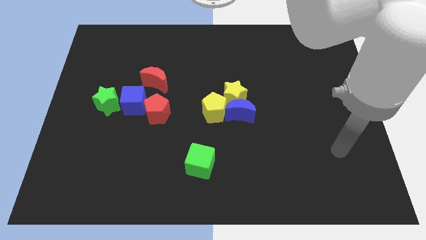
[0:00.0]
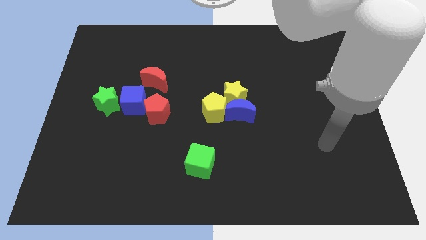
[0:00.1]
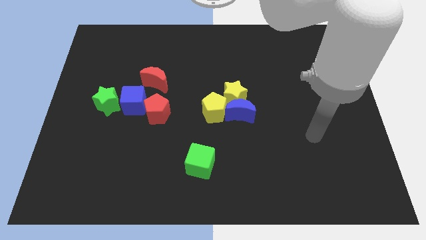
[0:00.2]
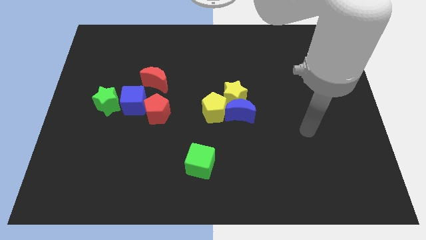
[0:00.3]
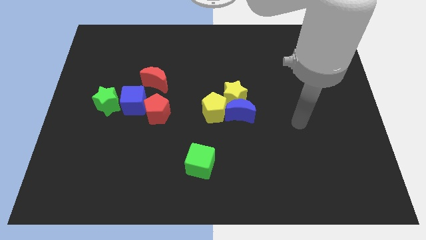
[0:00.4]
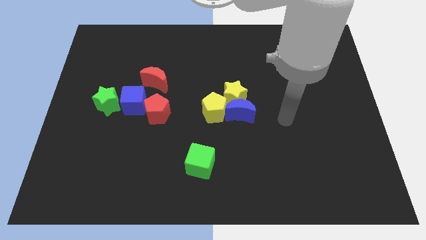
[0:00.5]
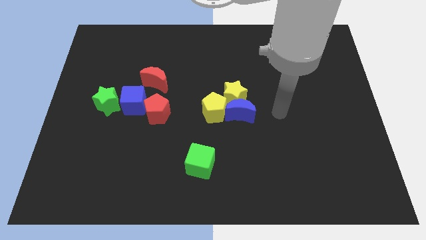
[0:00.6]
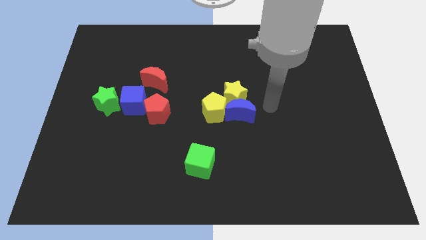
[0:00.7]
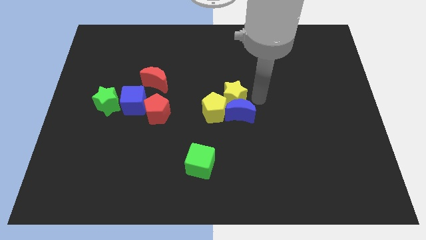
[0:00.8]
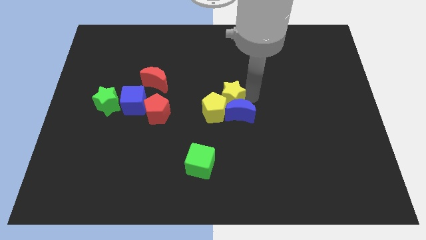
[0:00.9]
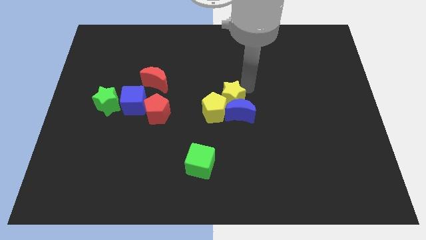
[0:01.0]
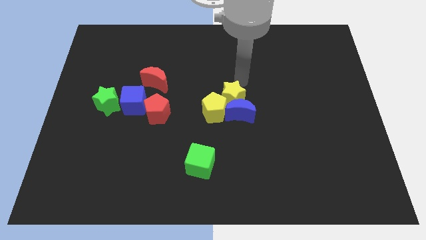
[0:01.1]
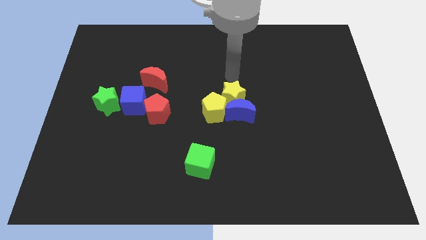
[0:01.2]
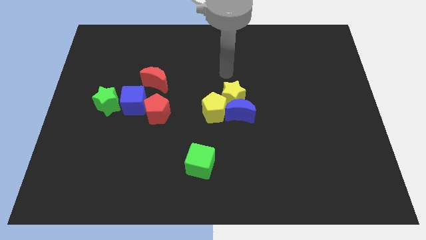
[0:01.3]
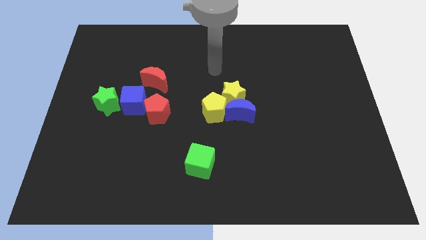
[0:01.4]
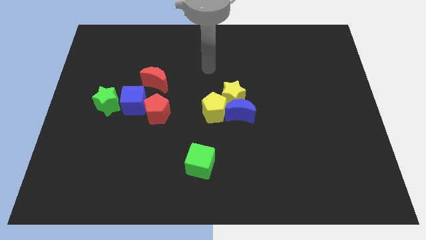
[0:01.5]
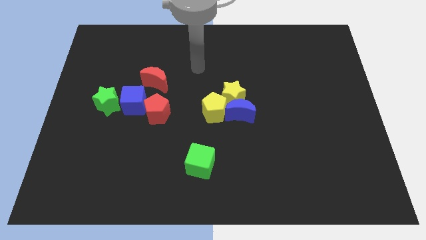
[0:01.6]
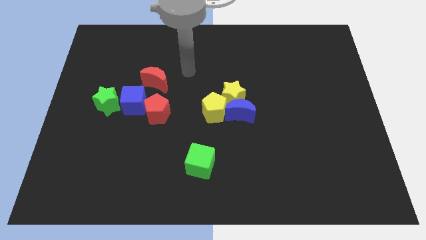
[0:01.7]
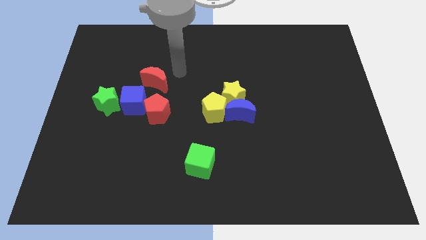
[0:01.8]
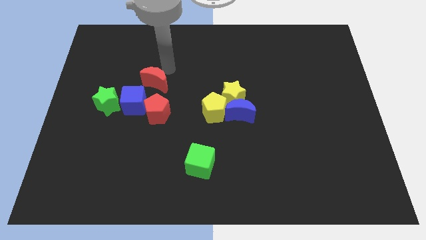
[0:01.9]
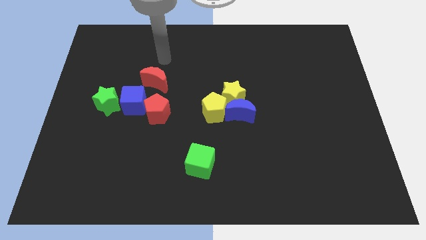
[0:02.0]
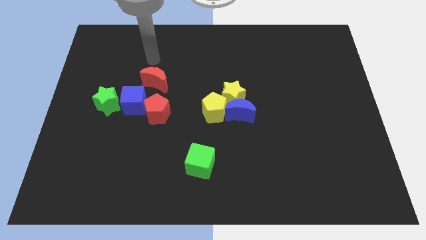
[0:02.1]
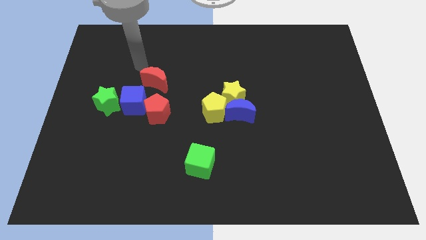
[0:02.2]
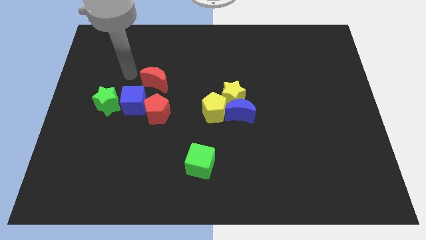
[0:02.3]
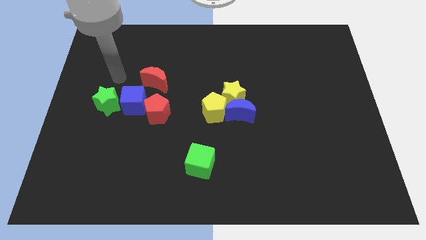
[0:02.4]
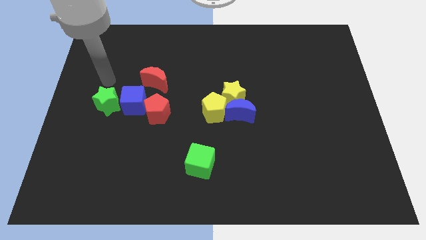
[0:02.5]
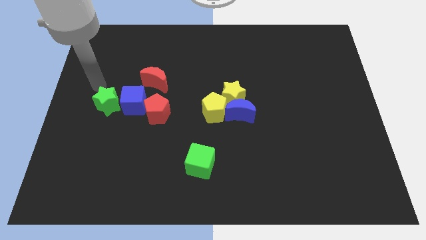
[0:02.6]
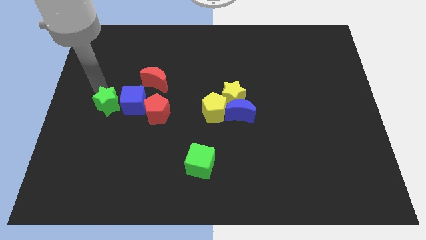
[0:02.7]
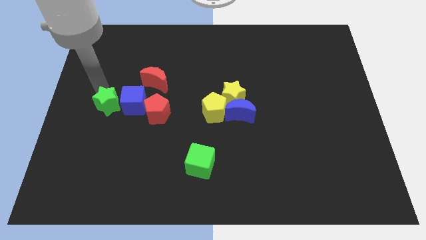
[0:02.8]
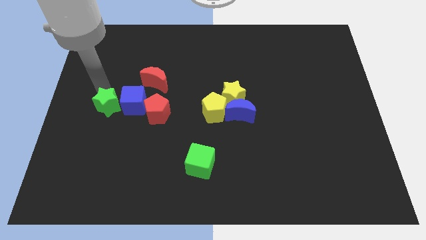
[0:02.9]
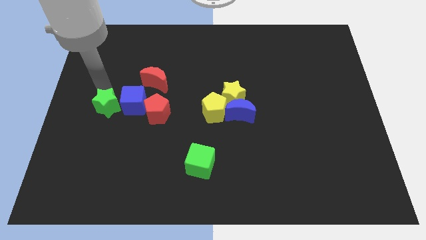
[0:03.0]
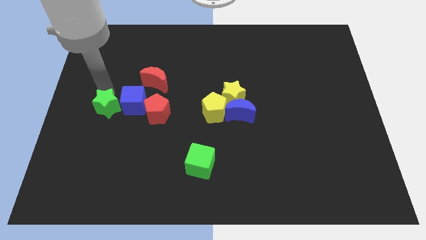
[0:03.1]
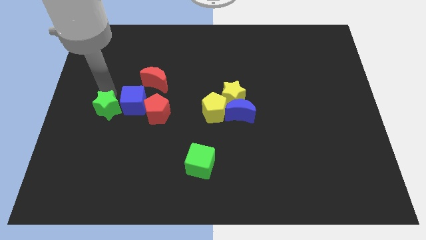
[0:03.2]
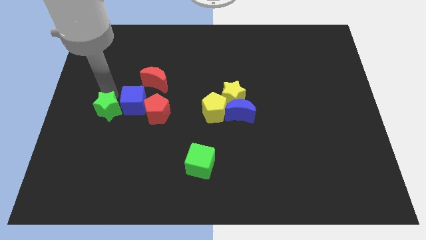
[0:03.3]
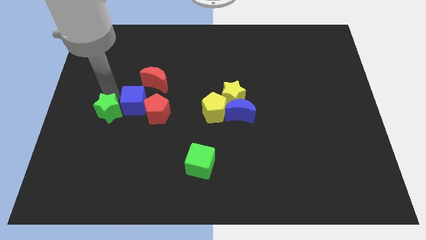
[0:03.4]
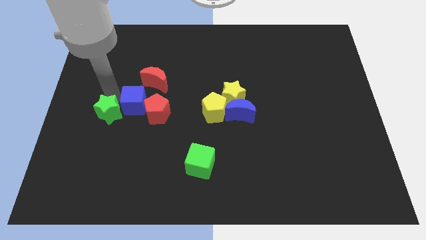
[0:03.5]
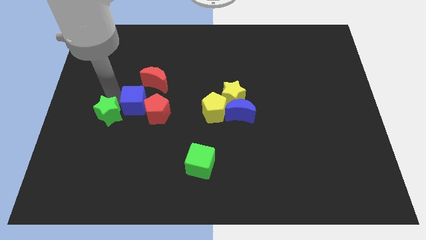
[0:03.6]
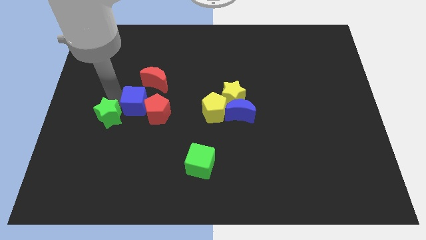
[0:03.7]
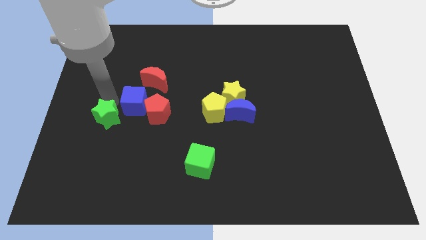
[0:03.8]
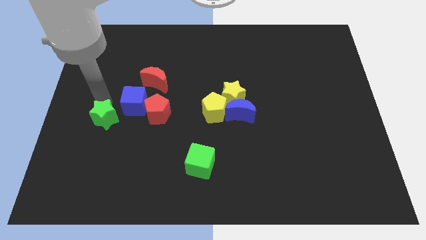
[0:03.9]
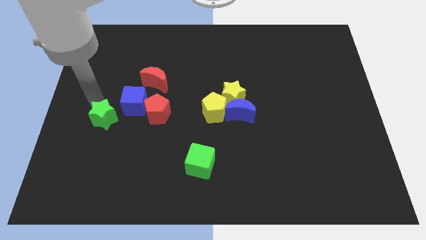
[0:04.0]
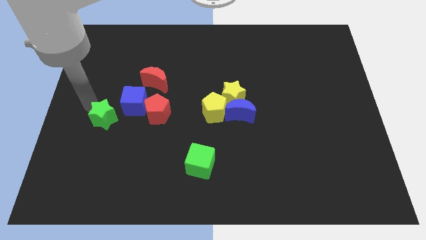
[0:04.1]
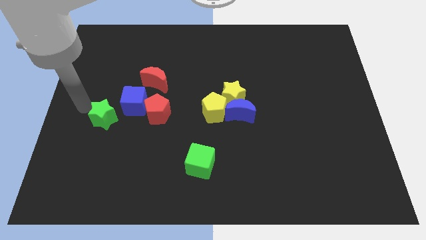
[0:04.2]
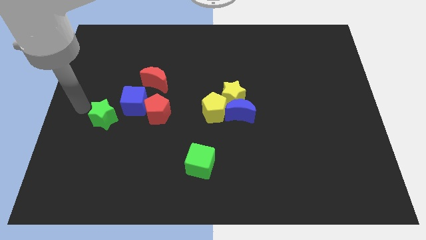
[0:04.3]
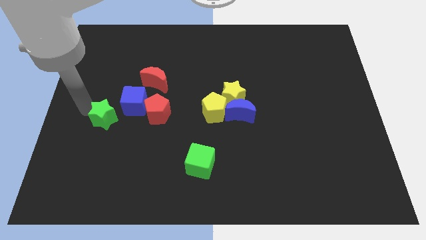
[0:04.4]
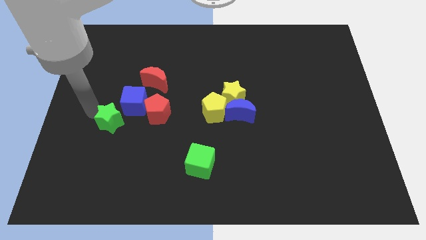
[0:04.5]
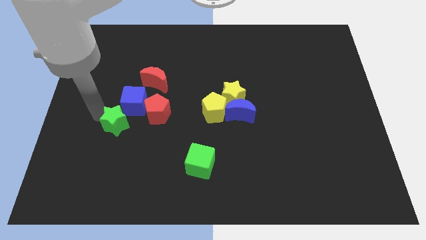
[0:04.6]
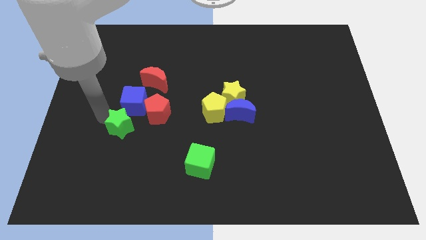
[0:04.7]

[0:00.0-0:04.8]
slightly slide the green star downwards and right diagonally

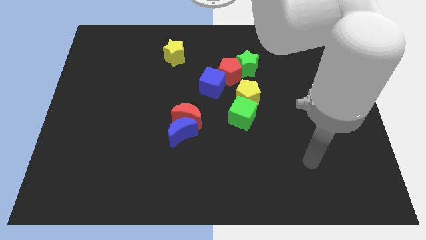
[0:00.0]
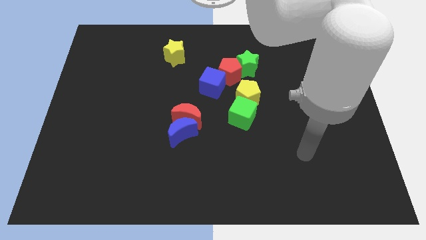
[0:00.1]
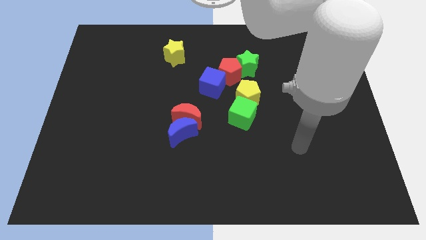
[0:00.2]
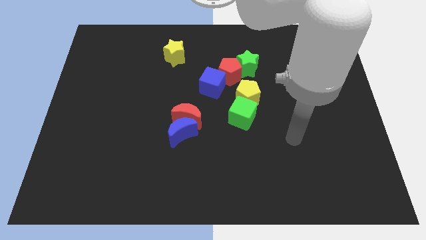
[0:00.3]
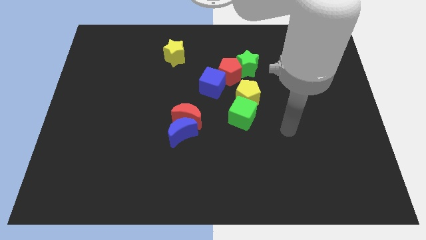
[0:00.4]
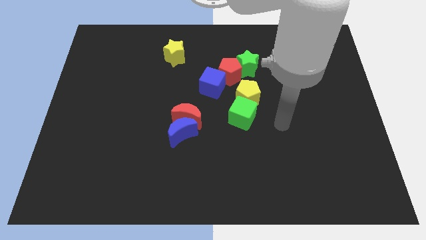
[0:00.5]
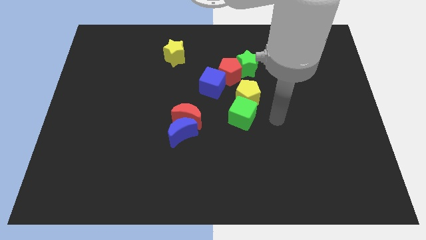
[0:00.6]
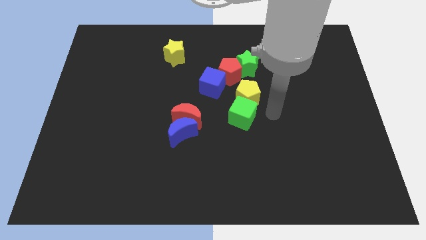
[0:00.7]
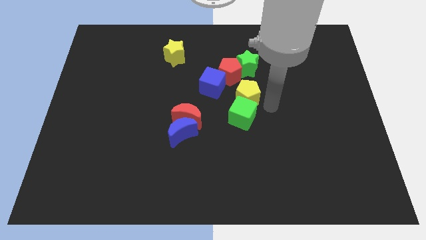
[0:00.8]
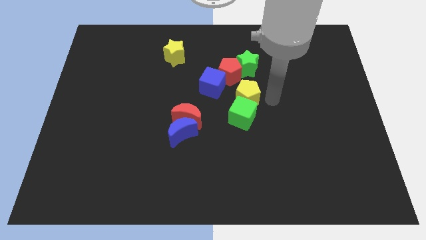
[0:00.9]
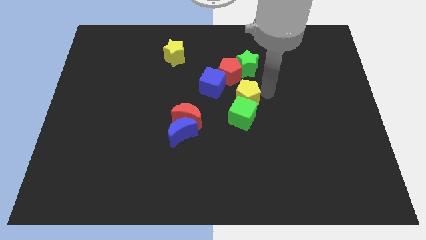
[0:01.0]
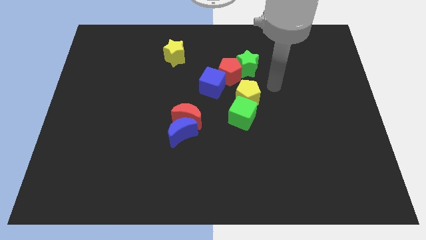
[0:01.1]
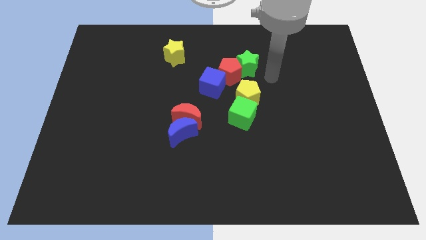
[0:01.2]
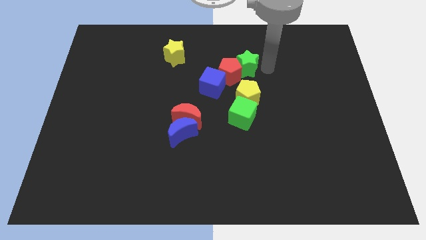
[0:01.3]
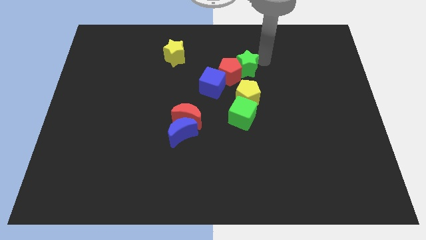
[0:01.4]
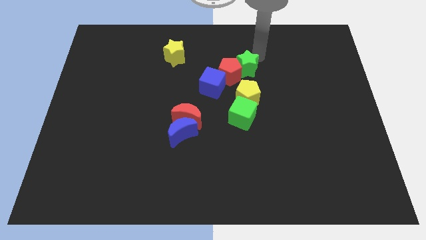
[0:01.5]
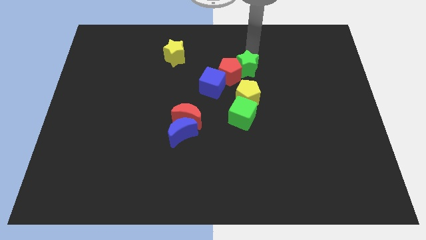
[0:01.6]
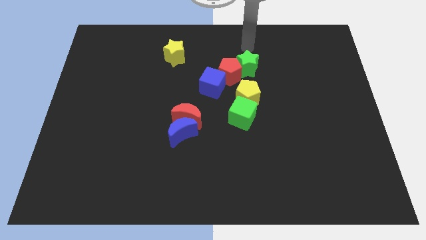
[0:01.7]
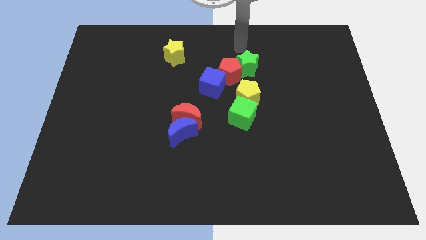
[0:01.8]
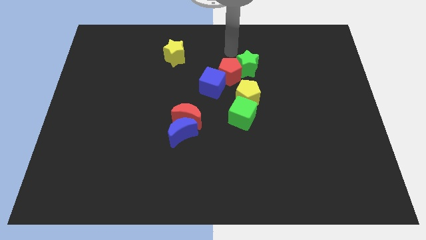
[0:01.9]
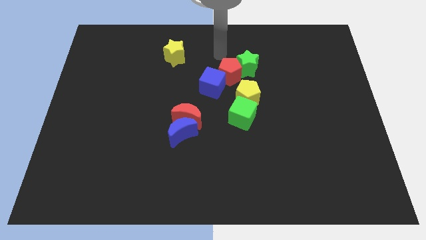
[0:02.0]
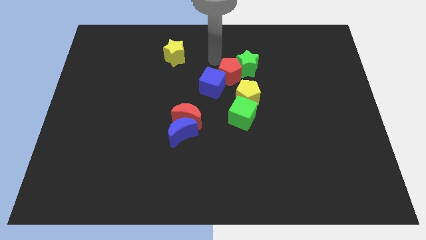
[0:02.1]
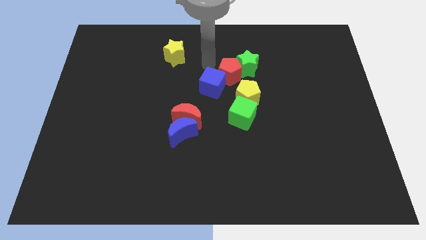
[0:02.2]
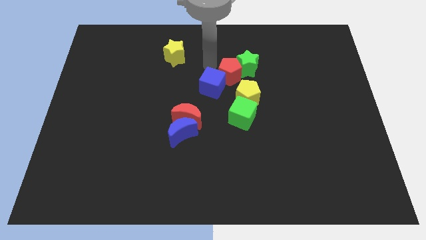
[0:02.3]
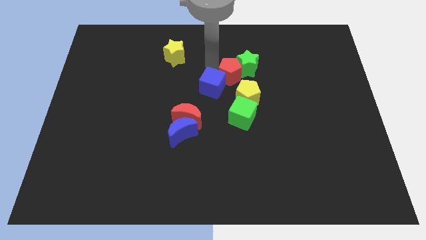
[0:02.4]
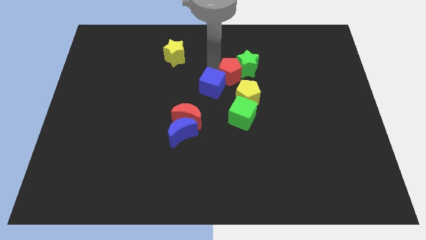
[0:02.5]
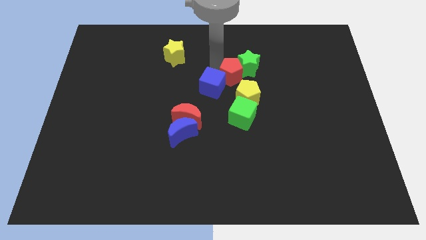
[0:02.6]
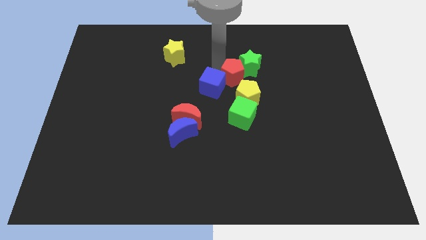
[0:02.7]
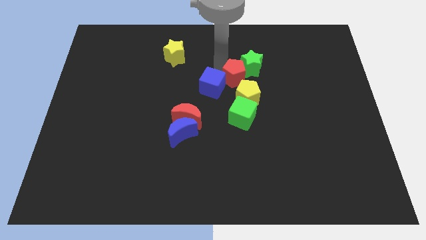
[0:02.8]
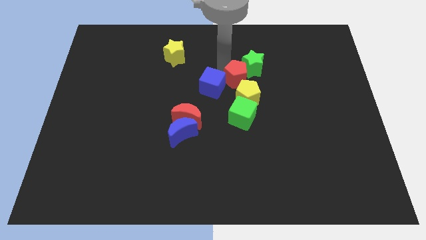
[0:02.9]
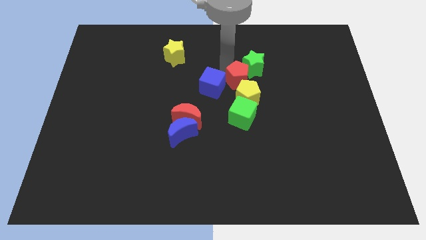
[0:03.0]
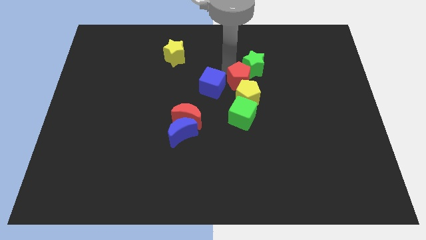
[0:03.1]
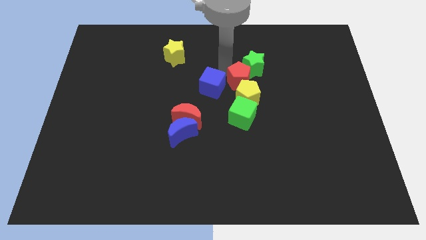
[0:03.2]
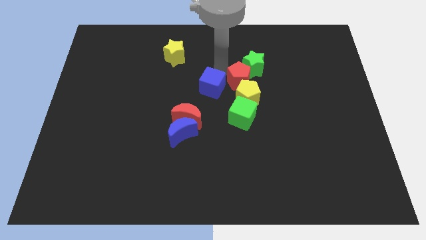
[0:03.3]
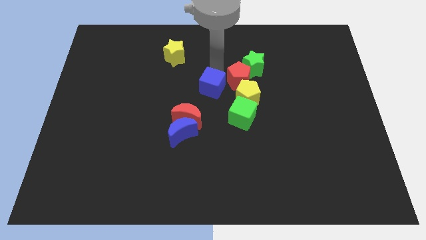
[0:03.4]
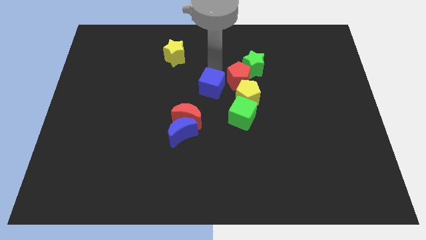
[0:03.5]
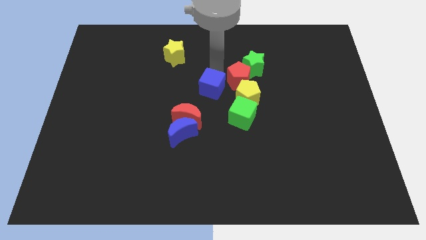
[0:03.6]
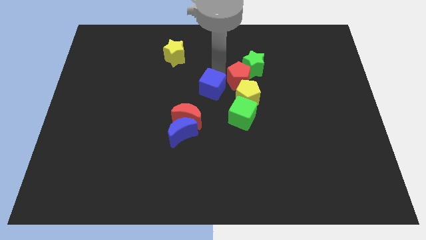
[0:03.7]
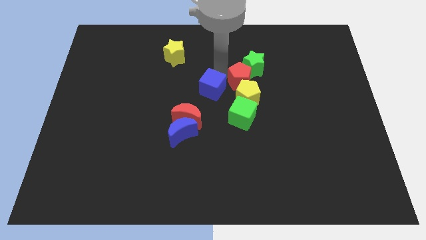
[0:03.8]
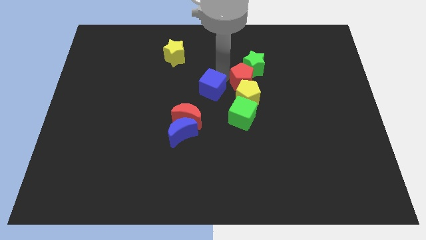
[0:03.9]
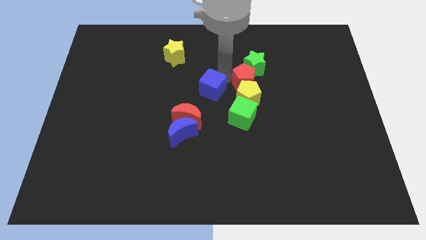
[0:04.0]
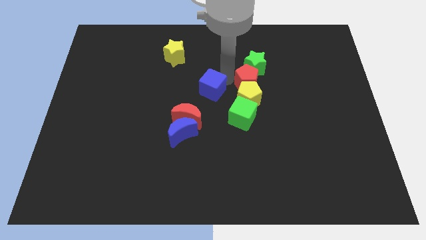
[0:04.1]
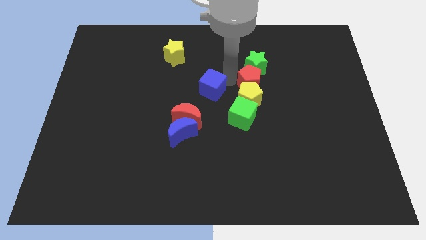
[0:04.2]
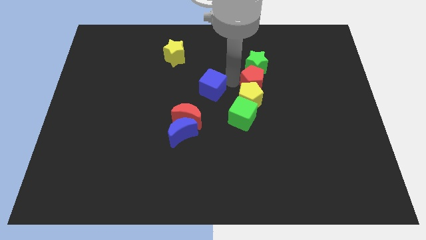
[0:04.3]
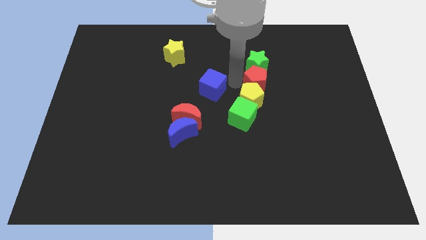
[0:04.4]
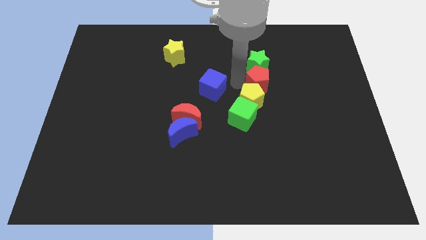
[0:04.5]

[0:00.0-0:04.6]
push the red pentagon to the right a bit
